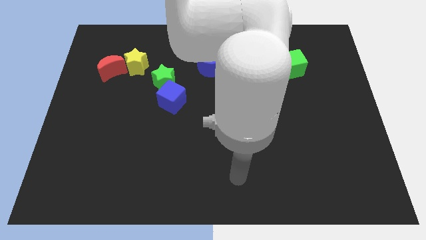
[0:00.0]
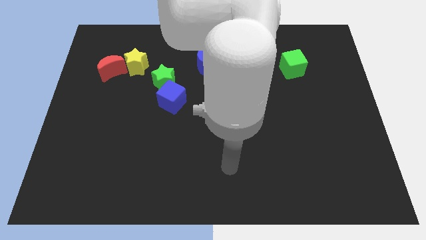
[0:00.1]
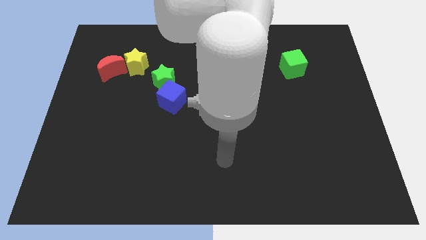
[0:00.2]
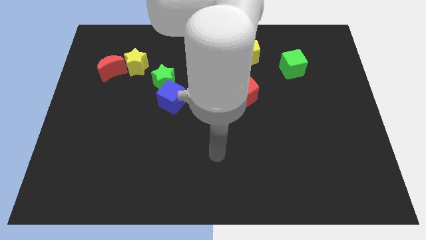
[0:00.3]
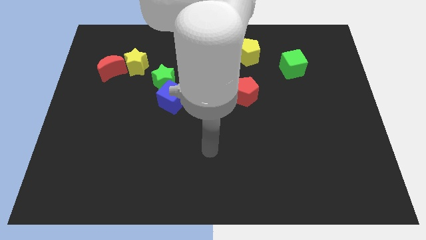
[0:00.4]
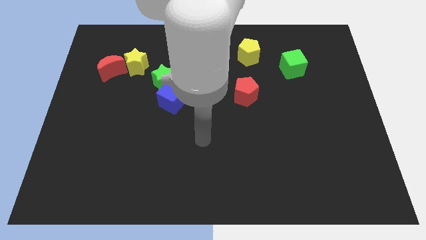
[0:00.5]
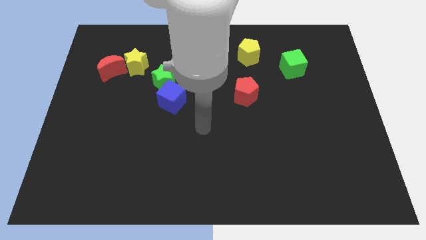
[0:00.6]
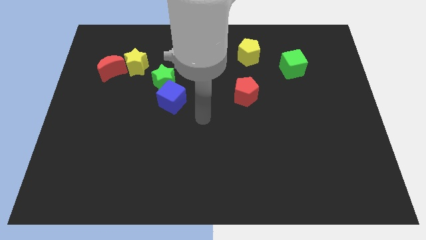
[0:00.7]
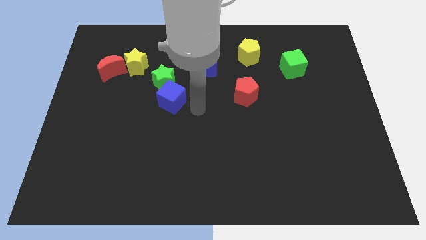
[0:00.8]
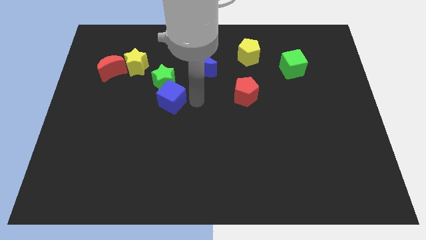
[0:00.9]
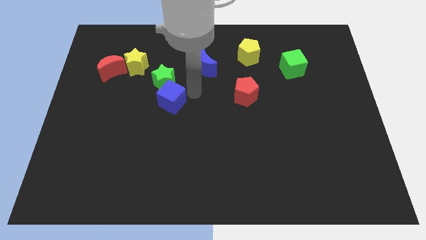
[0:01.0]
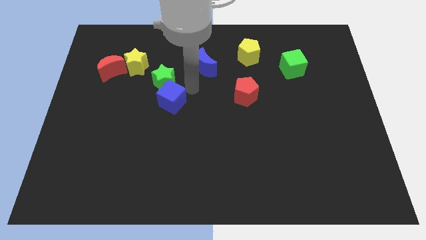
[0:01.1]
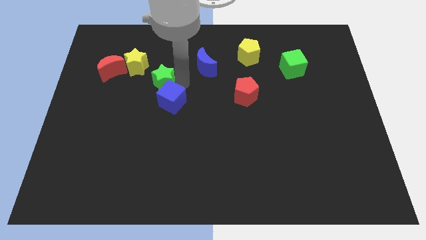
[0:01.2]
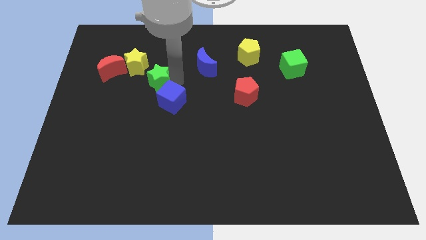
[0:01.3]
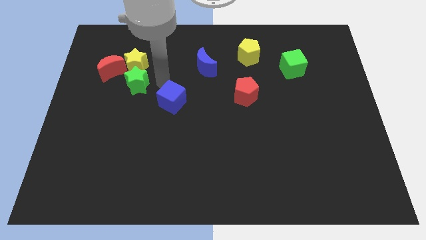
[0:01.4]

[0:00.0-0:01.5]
separate the blue cube from the green star

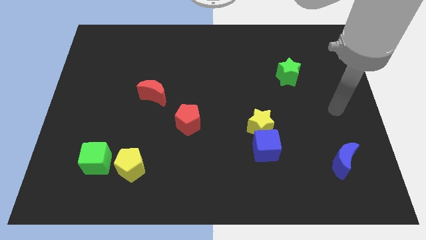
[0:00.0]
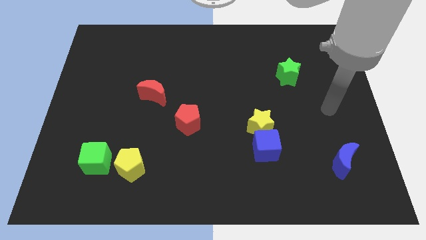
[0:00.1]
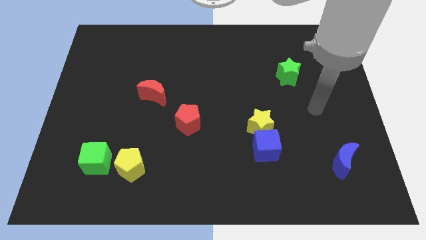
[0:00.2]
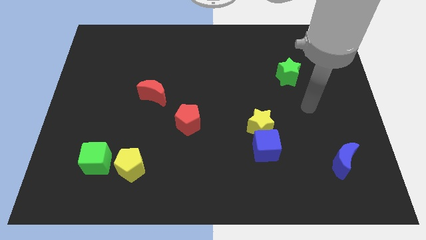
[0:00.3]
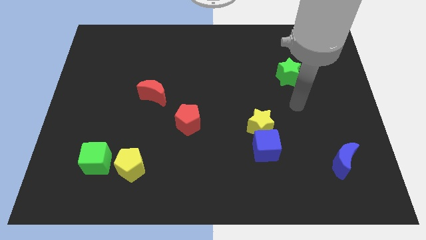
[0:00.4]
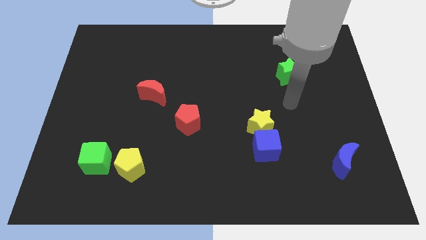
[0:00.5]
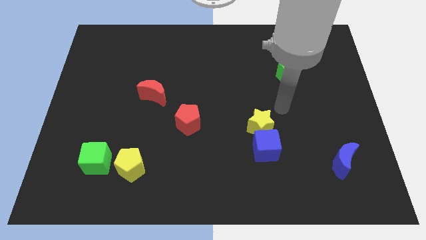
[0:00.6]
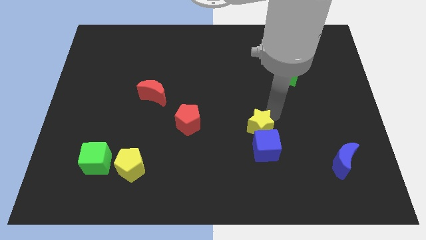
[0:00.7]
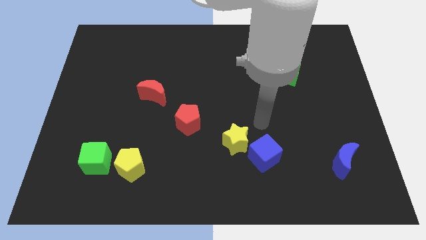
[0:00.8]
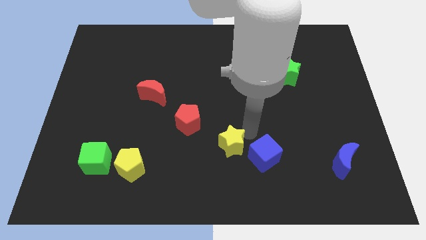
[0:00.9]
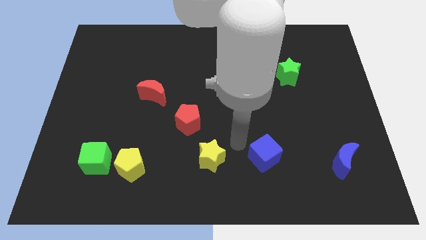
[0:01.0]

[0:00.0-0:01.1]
move the blue cube away from the yellow star

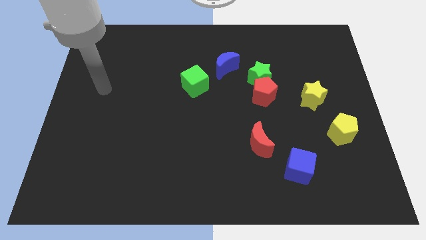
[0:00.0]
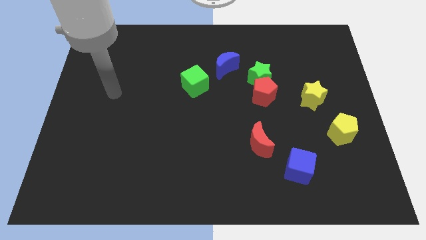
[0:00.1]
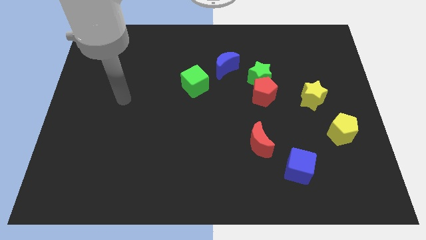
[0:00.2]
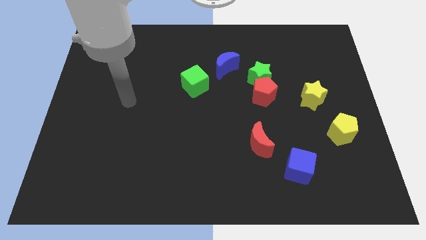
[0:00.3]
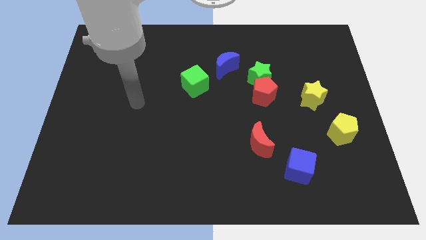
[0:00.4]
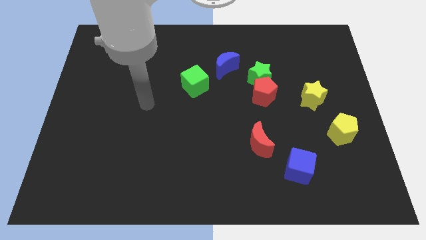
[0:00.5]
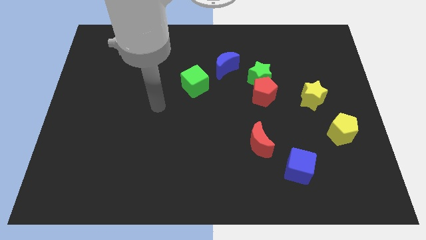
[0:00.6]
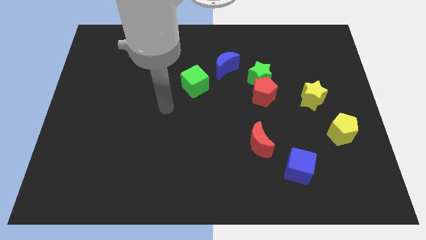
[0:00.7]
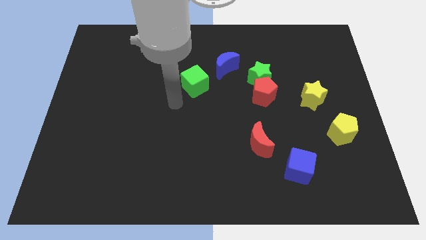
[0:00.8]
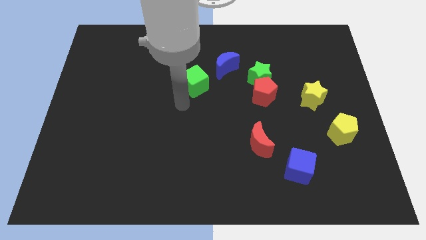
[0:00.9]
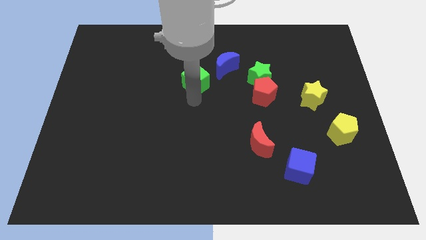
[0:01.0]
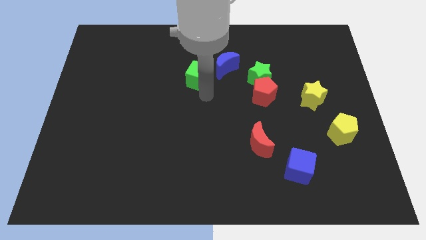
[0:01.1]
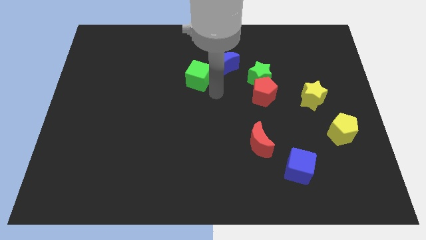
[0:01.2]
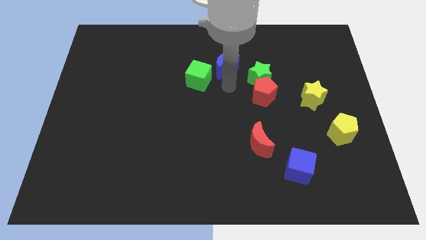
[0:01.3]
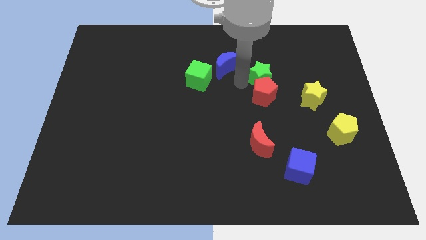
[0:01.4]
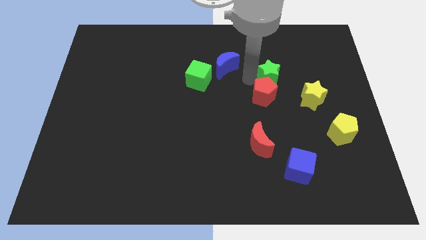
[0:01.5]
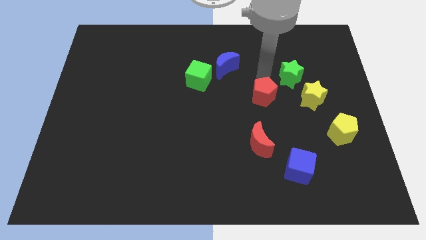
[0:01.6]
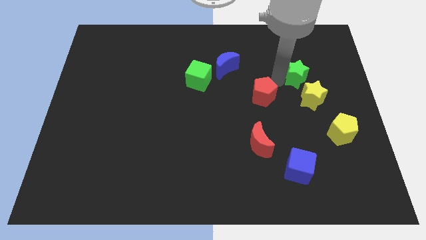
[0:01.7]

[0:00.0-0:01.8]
pull the red pentagon apart from the green star

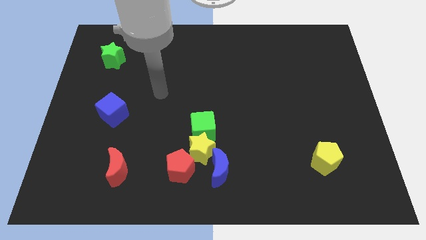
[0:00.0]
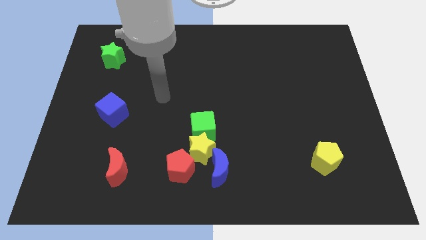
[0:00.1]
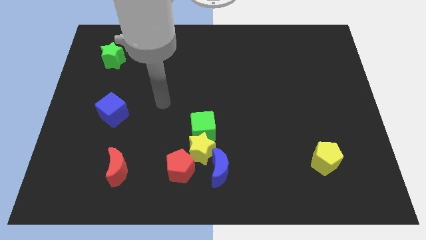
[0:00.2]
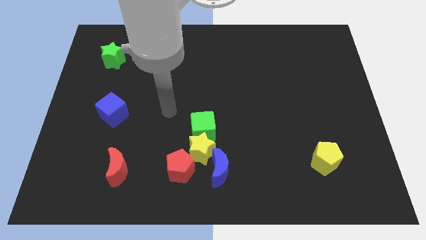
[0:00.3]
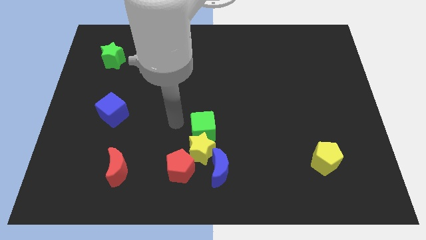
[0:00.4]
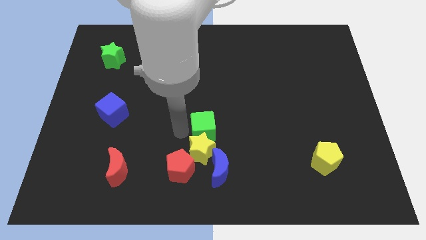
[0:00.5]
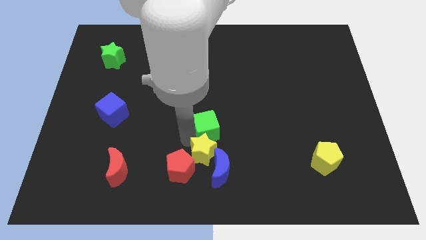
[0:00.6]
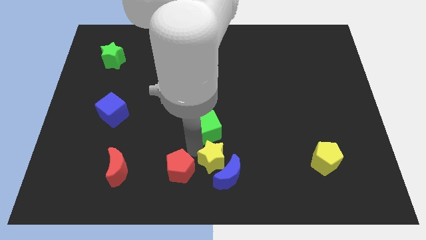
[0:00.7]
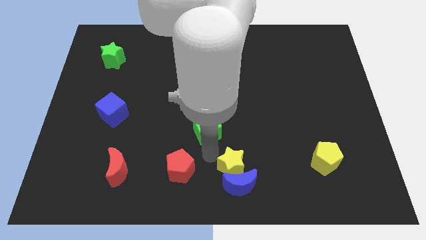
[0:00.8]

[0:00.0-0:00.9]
separate the green cube from the yellow star

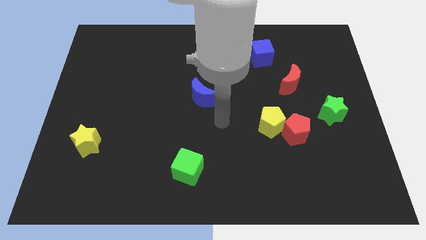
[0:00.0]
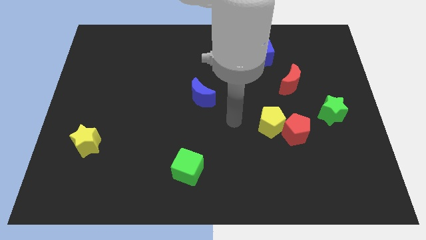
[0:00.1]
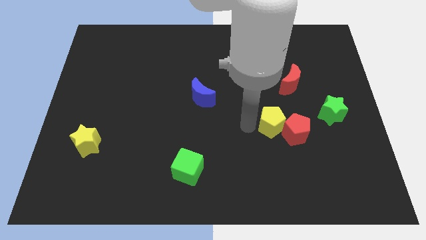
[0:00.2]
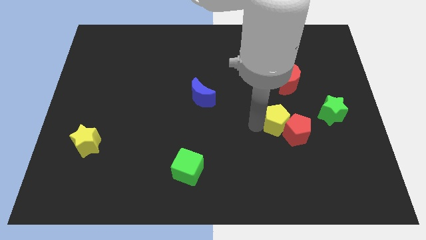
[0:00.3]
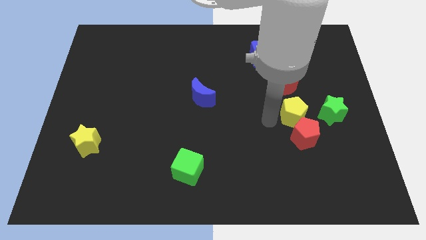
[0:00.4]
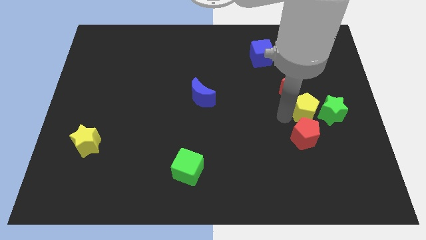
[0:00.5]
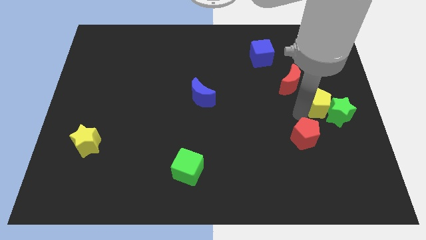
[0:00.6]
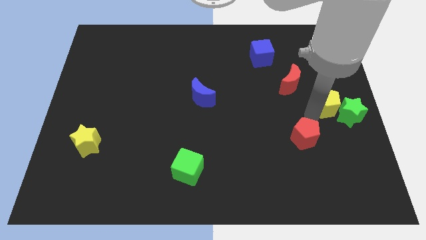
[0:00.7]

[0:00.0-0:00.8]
move the red pentagon away from the yellow pentagon

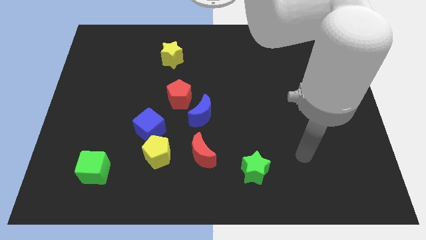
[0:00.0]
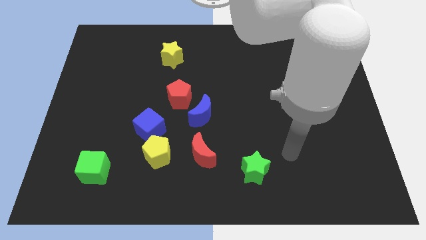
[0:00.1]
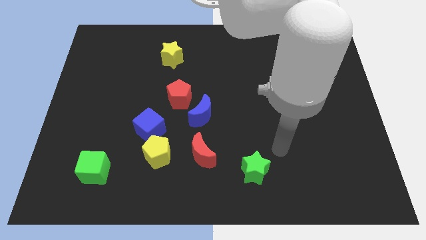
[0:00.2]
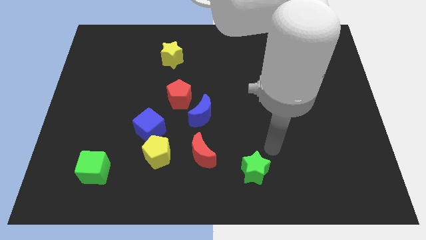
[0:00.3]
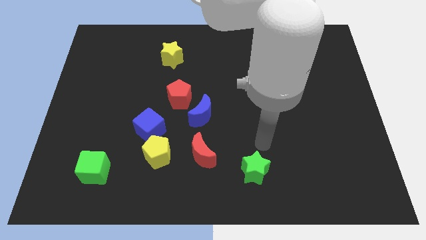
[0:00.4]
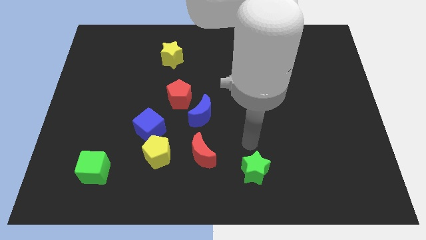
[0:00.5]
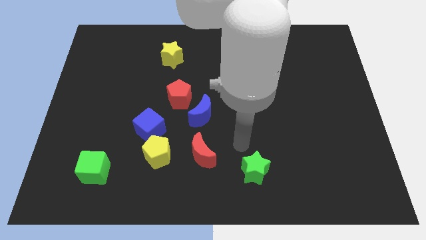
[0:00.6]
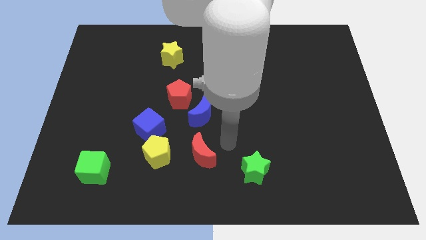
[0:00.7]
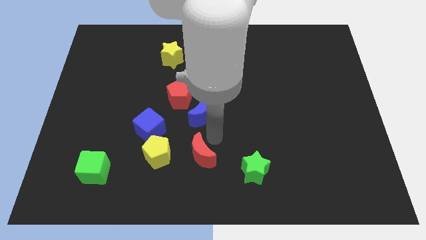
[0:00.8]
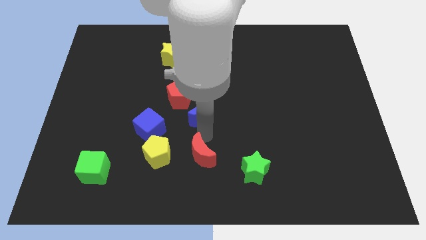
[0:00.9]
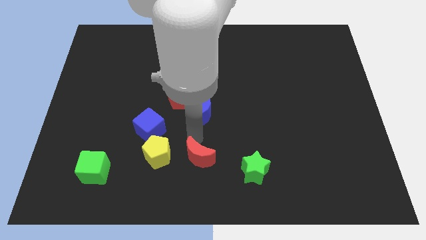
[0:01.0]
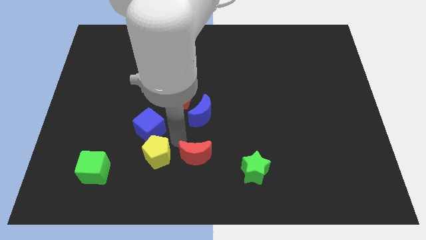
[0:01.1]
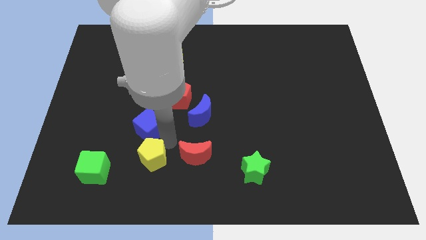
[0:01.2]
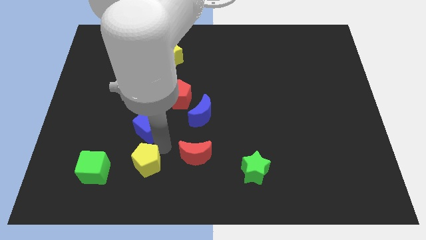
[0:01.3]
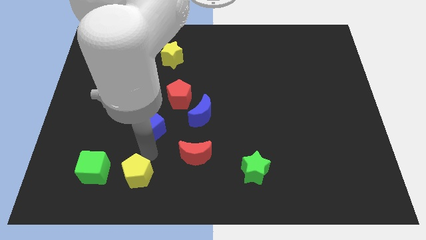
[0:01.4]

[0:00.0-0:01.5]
move the blue cube away from the yellow pentagon

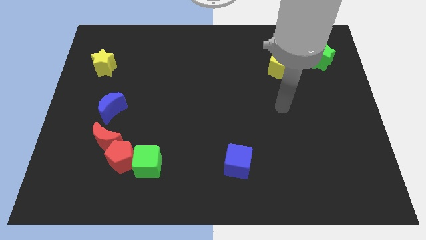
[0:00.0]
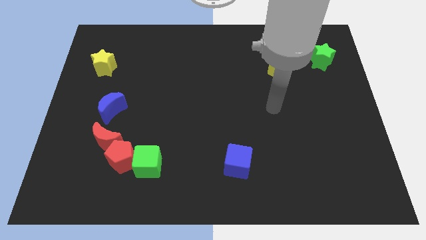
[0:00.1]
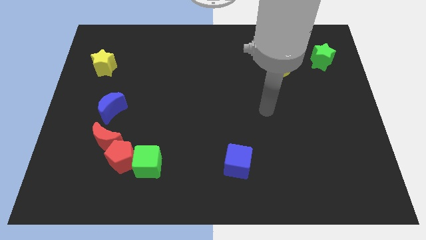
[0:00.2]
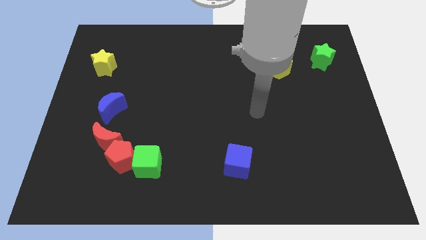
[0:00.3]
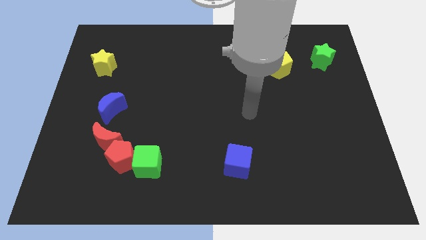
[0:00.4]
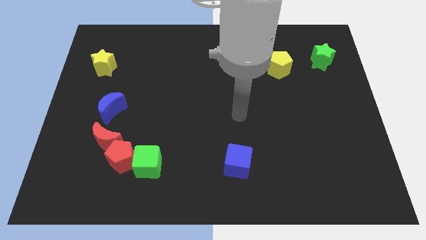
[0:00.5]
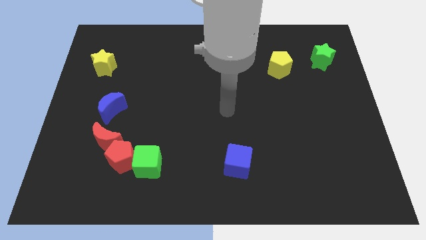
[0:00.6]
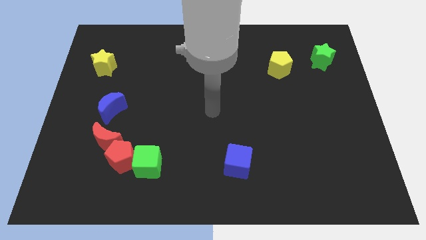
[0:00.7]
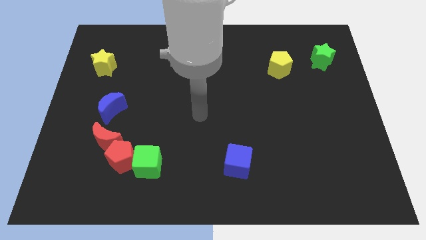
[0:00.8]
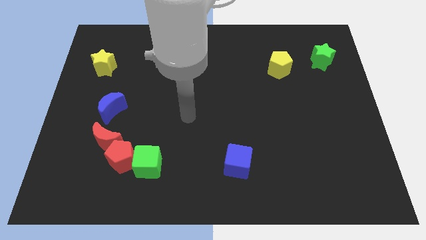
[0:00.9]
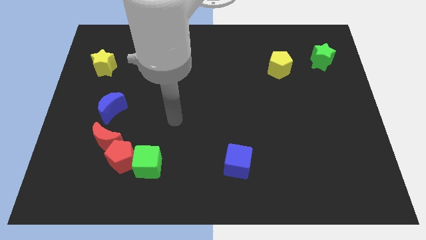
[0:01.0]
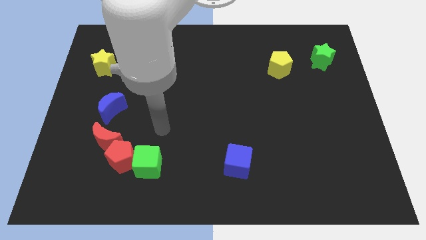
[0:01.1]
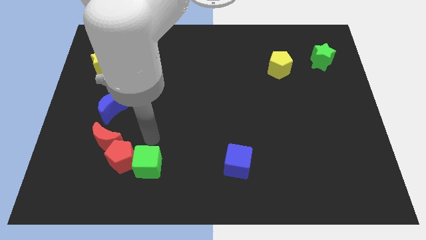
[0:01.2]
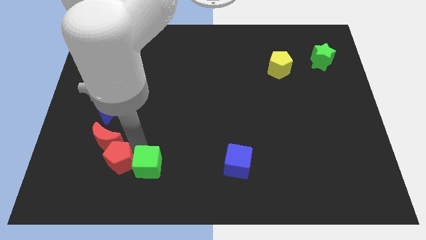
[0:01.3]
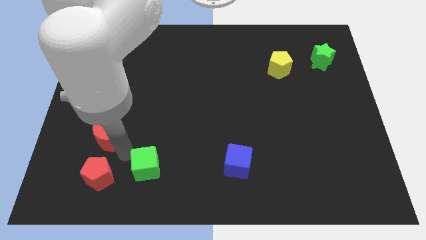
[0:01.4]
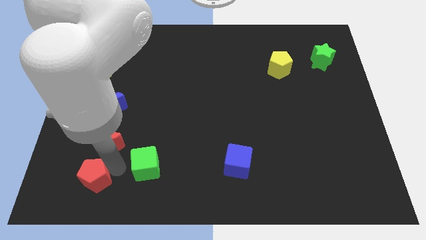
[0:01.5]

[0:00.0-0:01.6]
move the green cube away from the red pentagon
